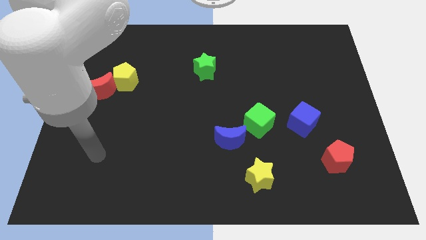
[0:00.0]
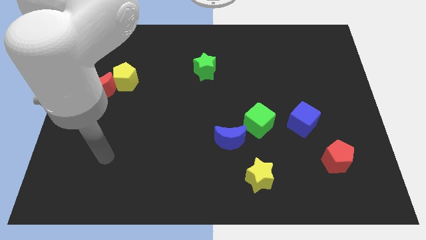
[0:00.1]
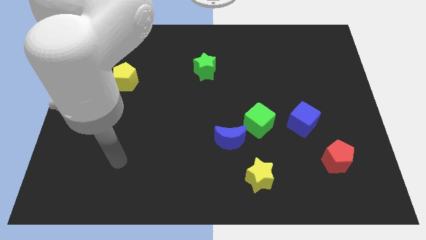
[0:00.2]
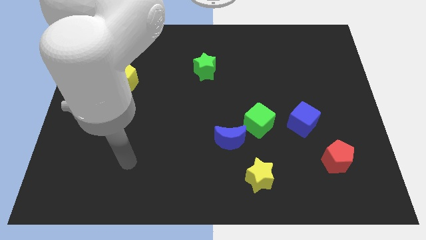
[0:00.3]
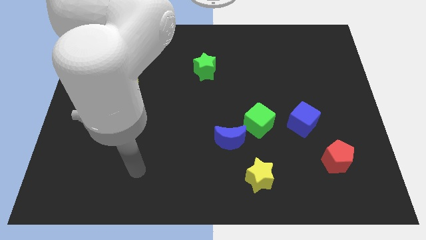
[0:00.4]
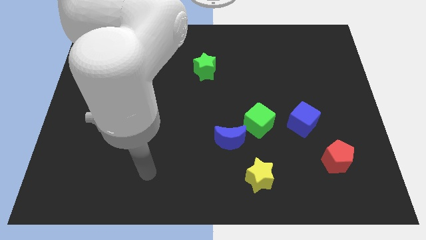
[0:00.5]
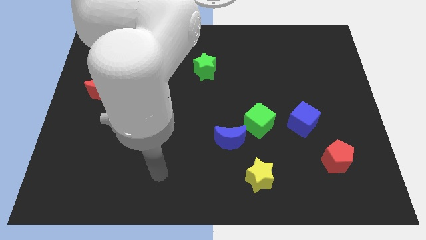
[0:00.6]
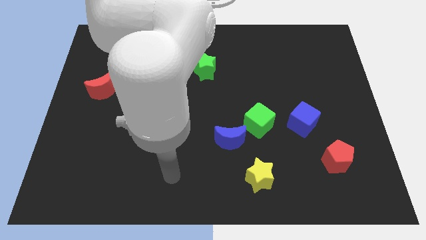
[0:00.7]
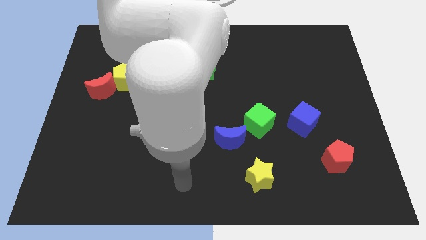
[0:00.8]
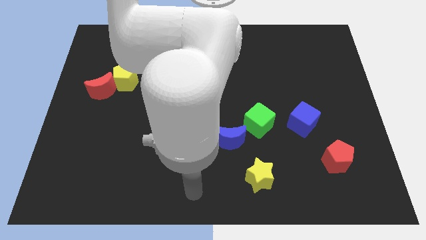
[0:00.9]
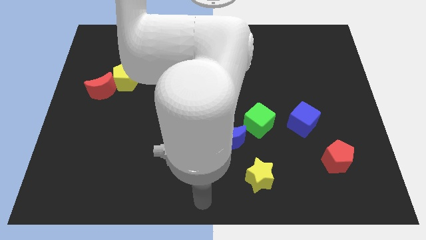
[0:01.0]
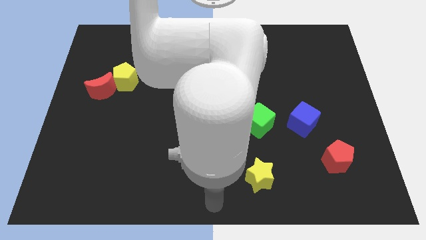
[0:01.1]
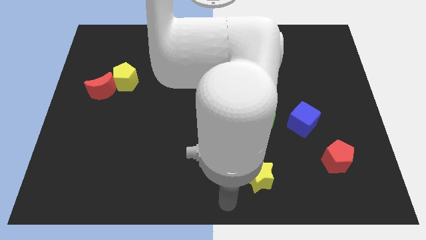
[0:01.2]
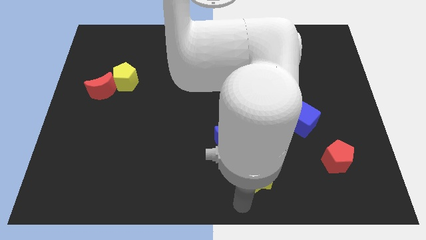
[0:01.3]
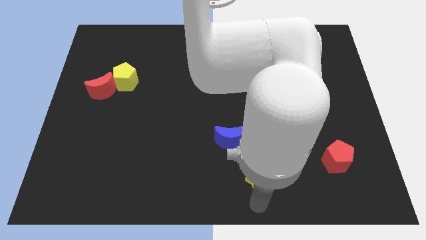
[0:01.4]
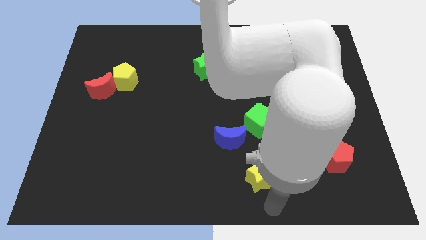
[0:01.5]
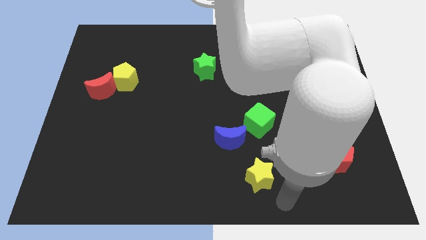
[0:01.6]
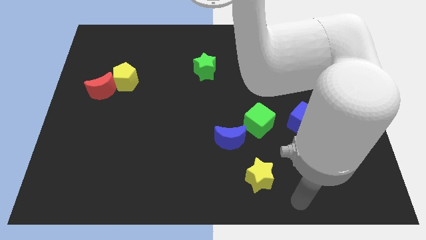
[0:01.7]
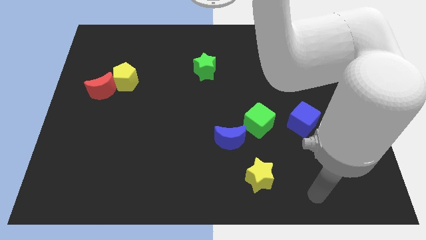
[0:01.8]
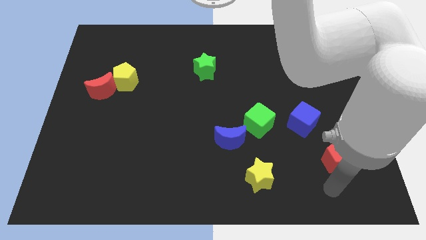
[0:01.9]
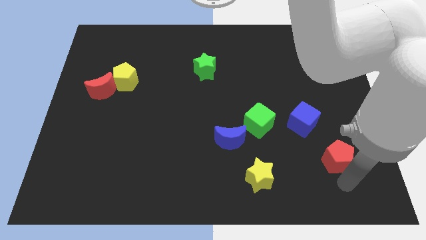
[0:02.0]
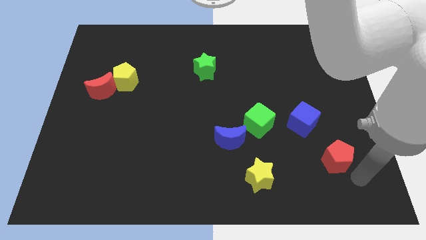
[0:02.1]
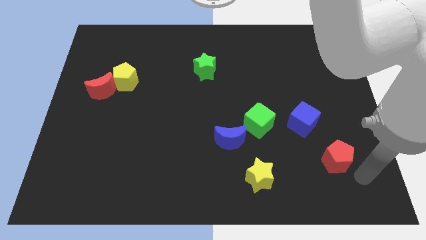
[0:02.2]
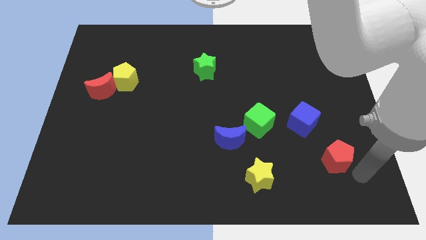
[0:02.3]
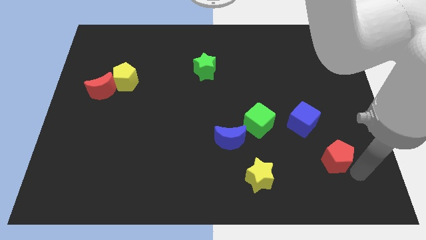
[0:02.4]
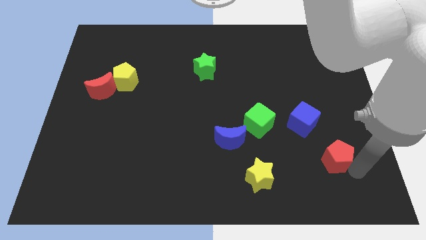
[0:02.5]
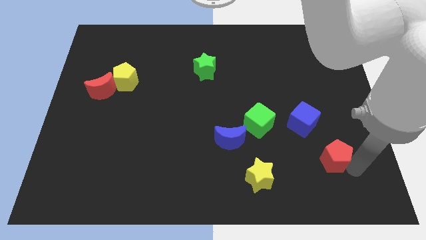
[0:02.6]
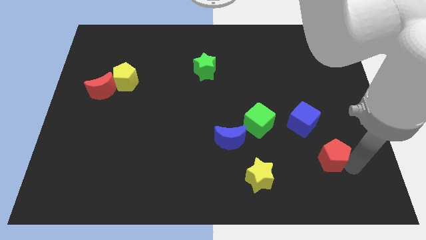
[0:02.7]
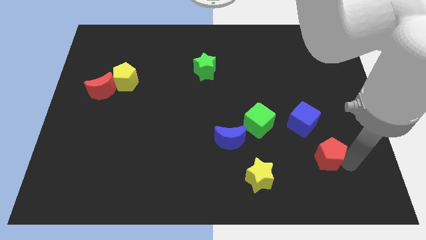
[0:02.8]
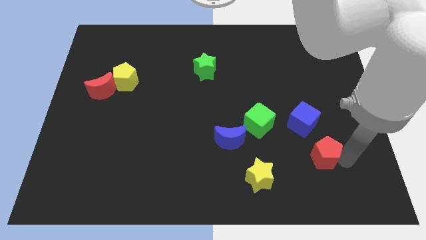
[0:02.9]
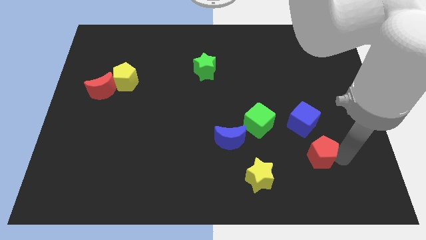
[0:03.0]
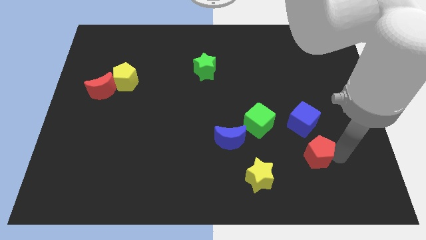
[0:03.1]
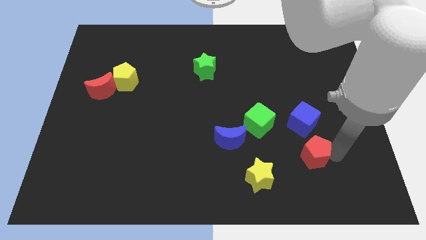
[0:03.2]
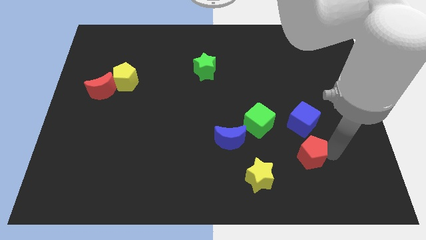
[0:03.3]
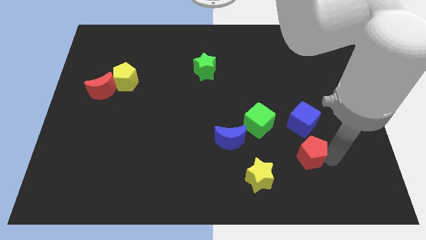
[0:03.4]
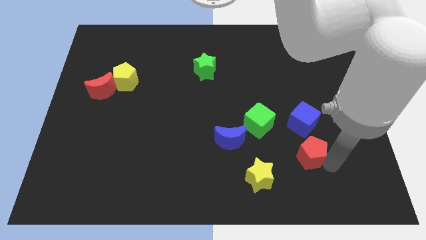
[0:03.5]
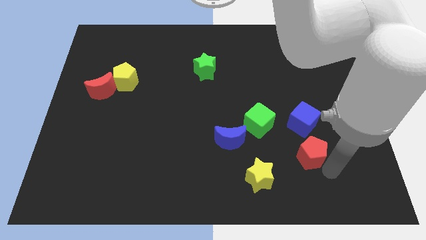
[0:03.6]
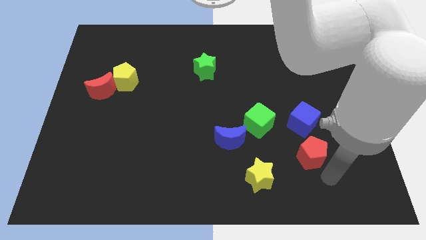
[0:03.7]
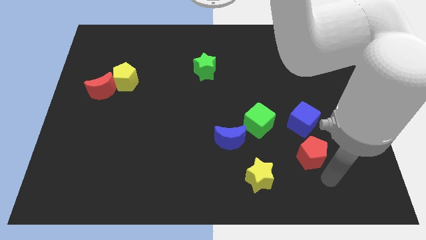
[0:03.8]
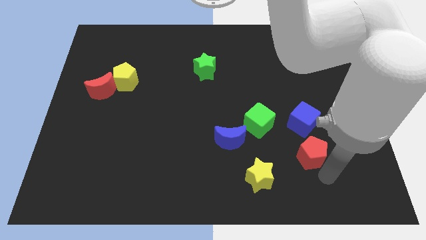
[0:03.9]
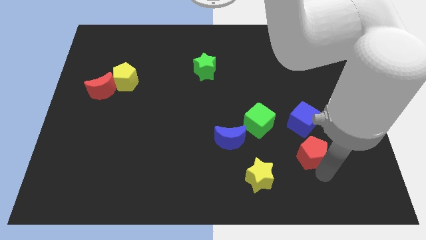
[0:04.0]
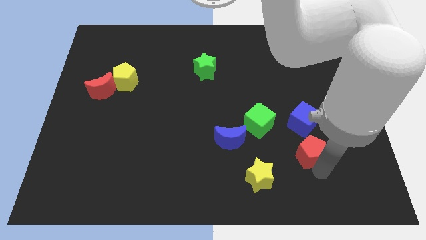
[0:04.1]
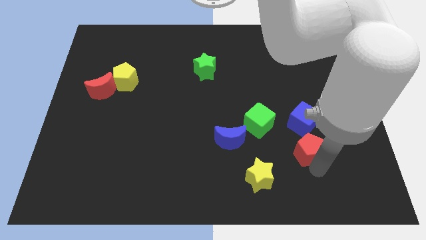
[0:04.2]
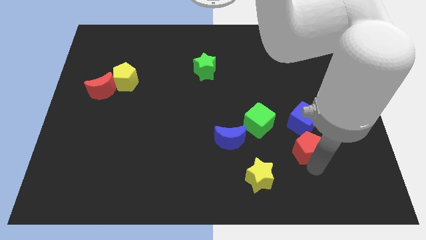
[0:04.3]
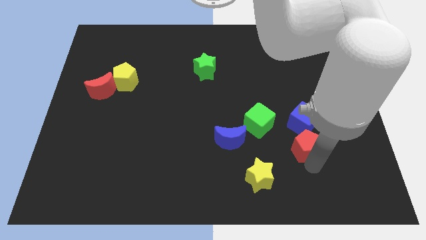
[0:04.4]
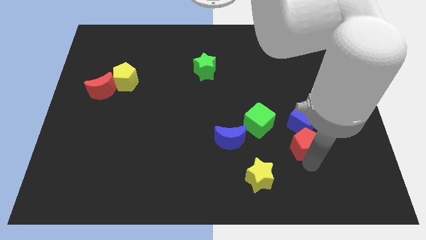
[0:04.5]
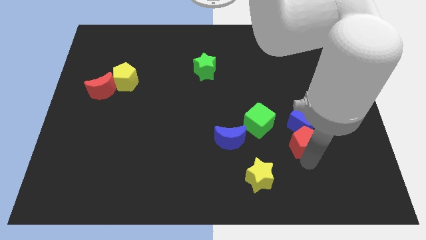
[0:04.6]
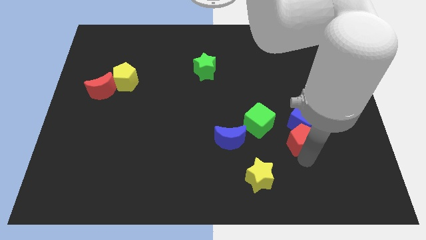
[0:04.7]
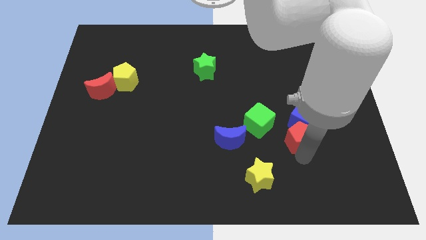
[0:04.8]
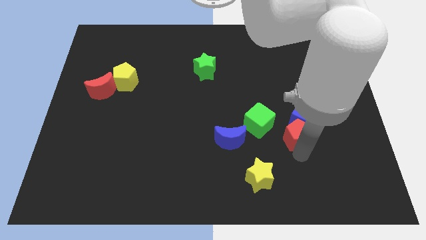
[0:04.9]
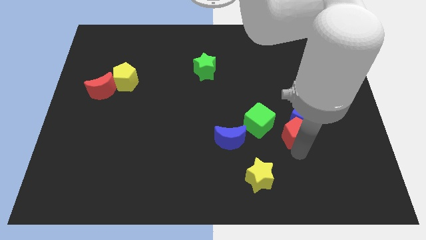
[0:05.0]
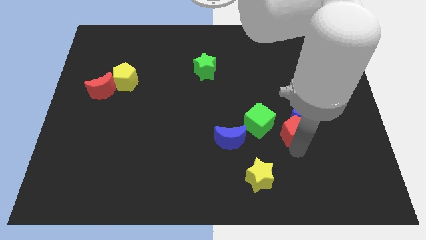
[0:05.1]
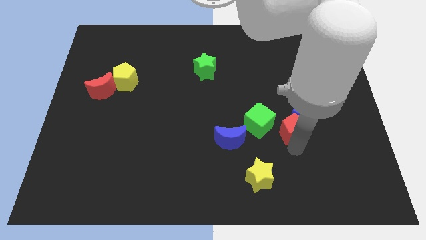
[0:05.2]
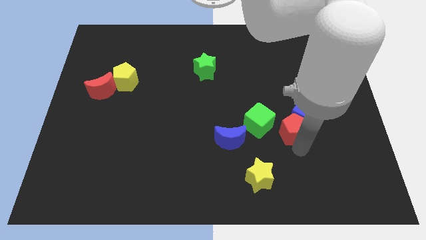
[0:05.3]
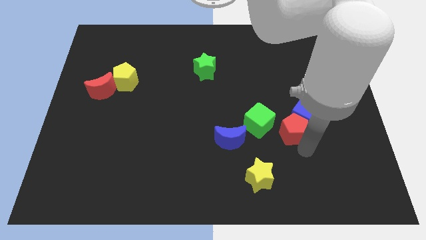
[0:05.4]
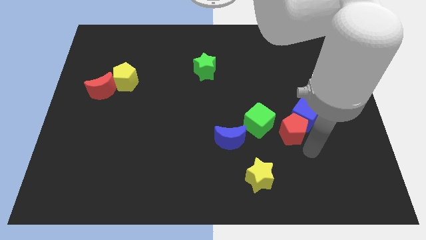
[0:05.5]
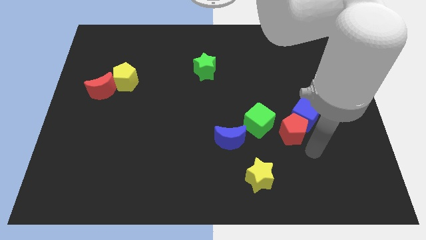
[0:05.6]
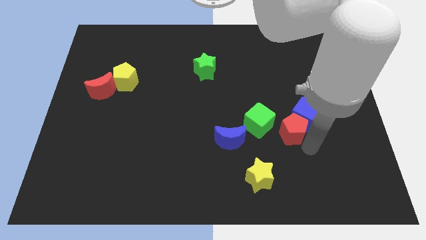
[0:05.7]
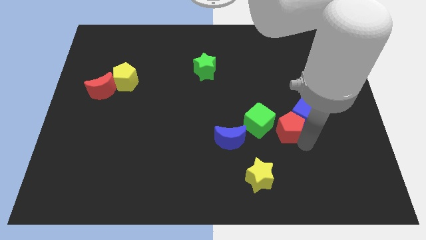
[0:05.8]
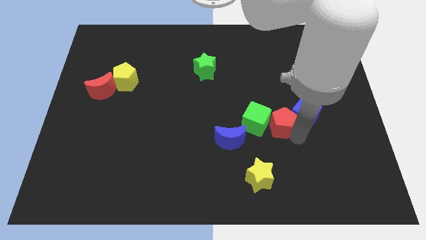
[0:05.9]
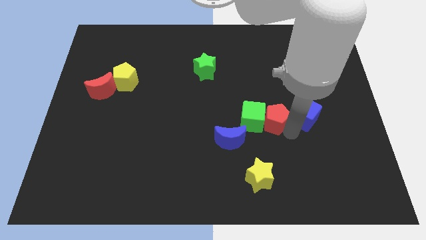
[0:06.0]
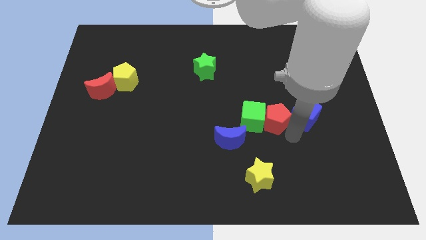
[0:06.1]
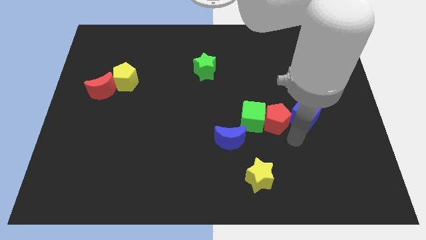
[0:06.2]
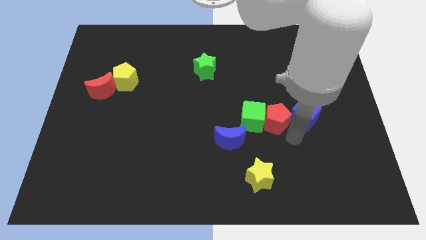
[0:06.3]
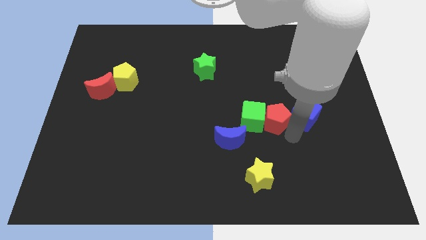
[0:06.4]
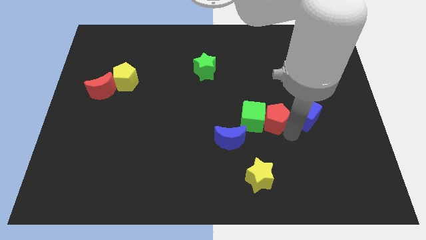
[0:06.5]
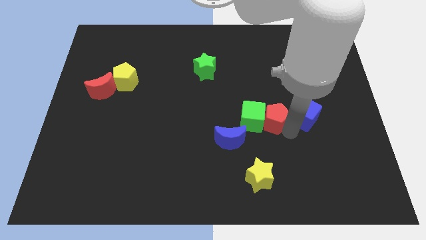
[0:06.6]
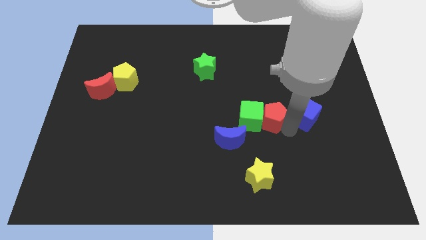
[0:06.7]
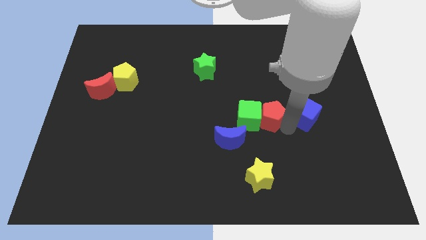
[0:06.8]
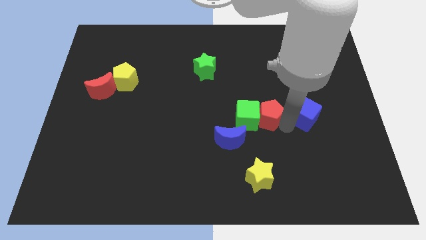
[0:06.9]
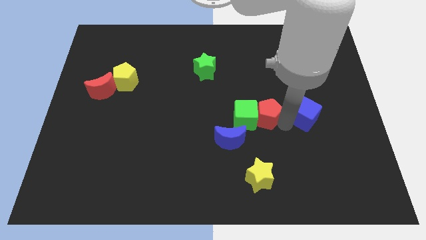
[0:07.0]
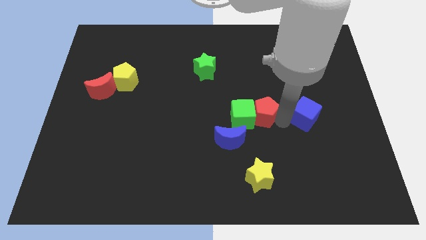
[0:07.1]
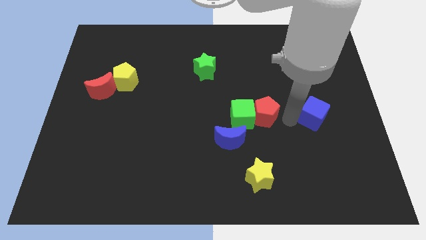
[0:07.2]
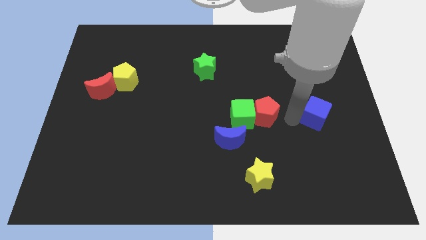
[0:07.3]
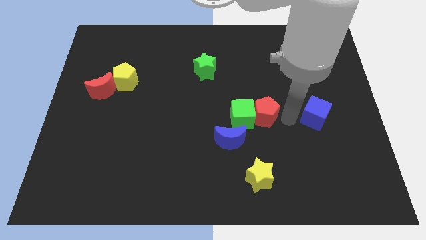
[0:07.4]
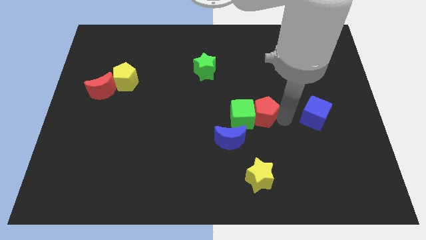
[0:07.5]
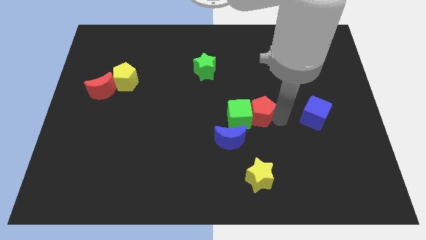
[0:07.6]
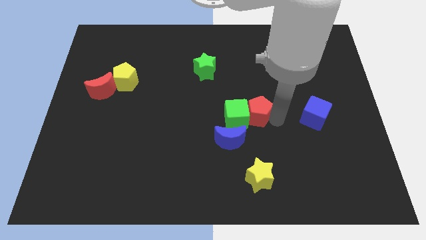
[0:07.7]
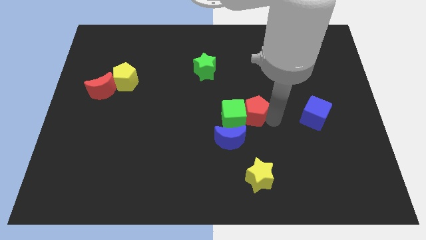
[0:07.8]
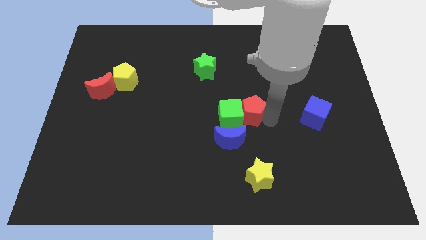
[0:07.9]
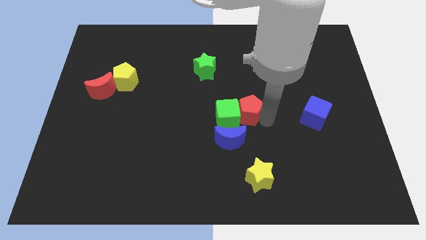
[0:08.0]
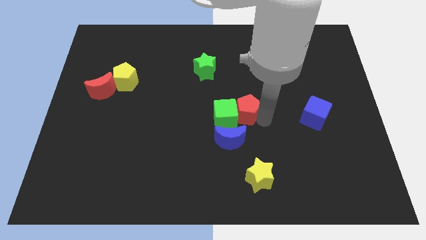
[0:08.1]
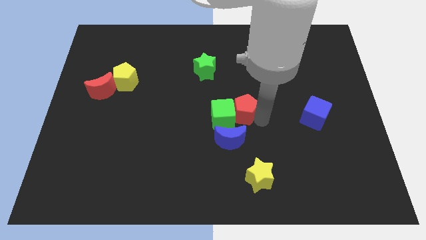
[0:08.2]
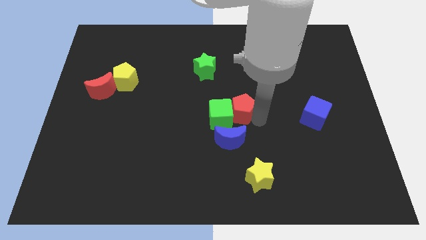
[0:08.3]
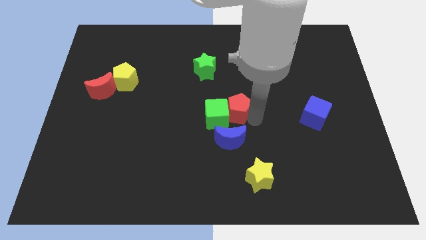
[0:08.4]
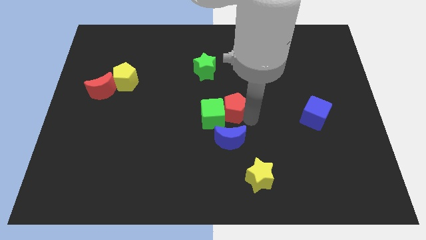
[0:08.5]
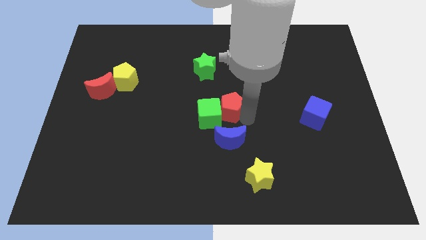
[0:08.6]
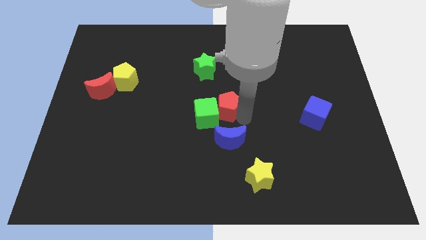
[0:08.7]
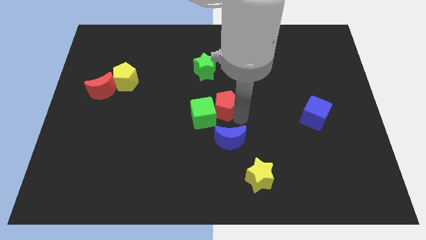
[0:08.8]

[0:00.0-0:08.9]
move the red pentagon to the bottom of the green star
